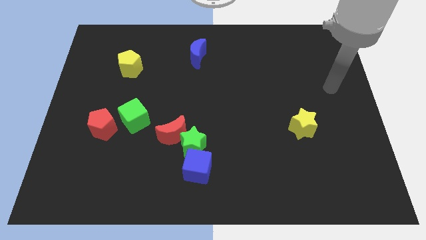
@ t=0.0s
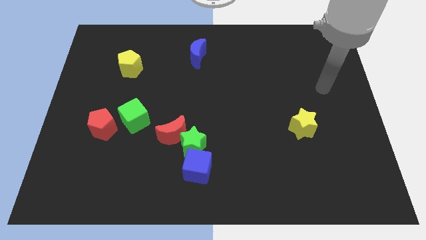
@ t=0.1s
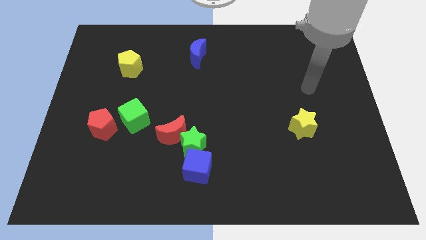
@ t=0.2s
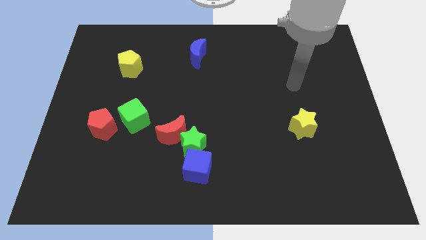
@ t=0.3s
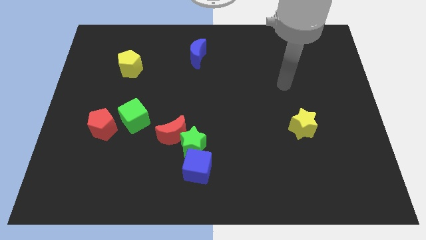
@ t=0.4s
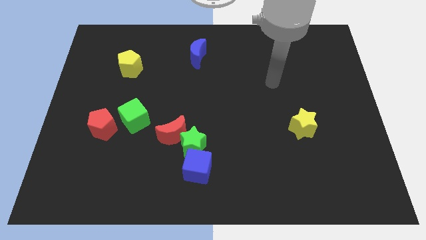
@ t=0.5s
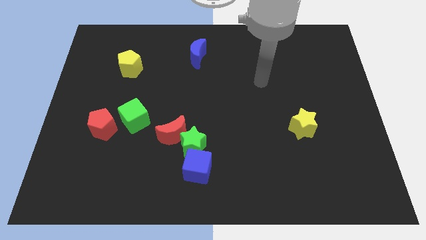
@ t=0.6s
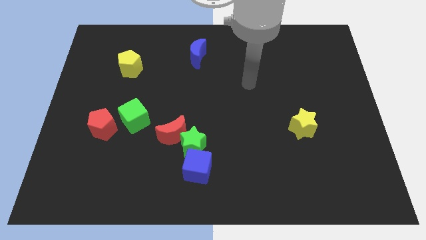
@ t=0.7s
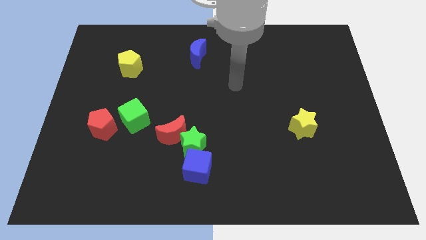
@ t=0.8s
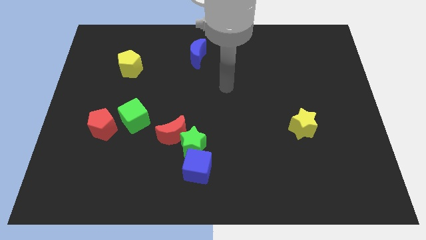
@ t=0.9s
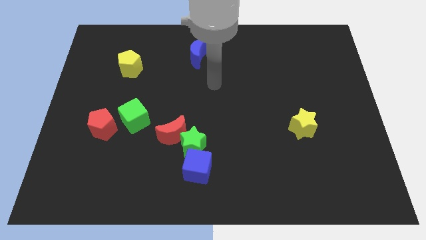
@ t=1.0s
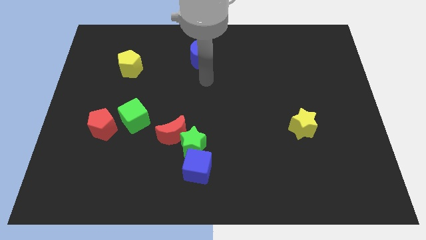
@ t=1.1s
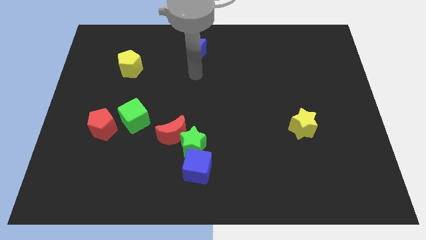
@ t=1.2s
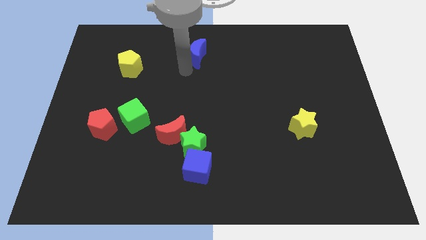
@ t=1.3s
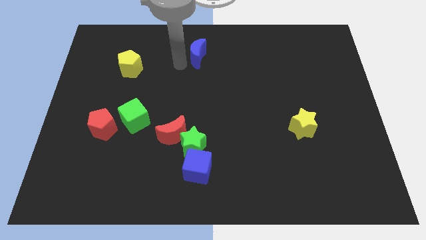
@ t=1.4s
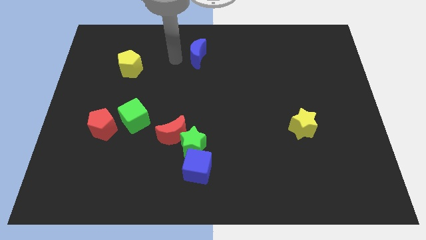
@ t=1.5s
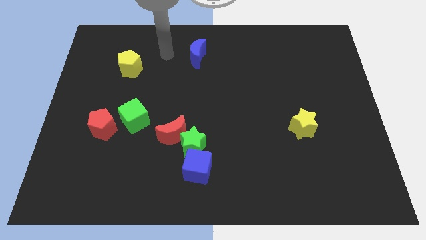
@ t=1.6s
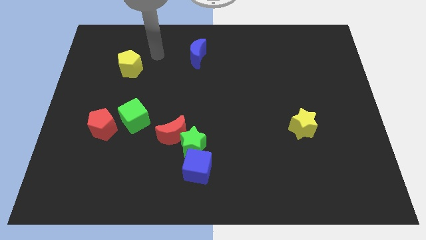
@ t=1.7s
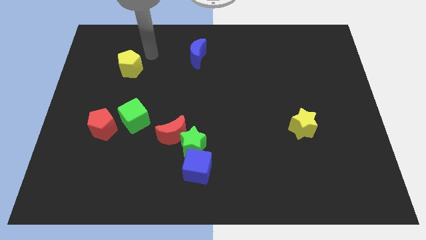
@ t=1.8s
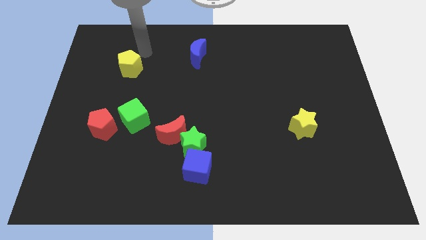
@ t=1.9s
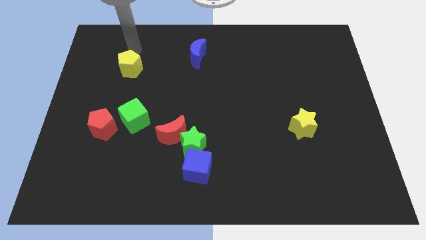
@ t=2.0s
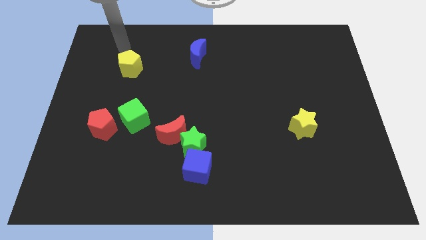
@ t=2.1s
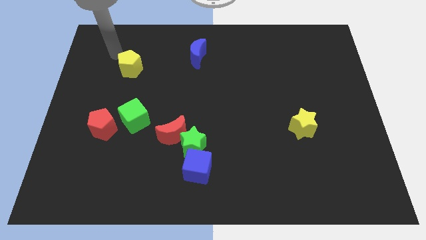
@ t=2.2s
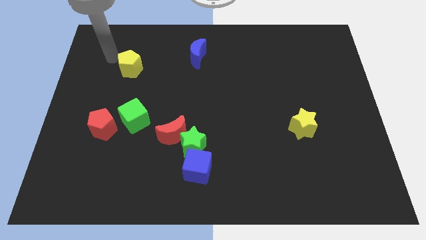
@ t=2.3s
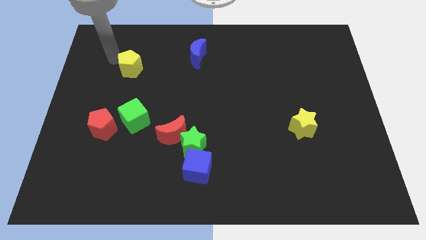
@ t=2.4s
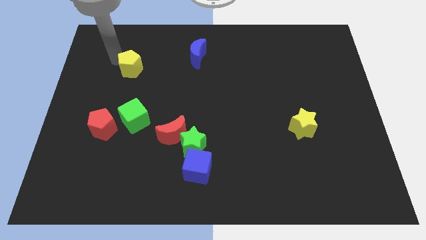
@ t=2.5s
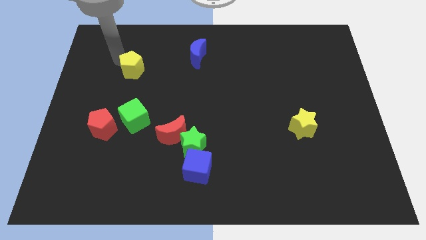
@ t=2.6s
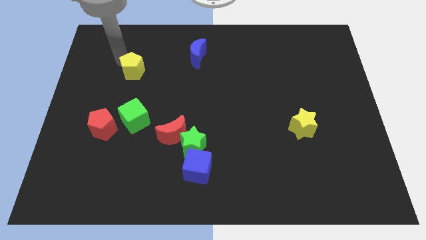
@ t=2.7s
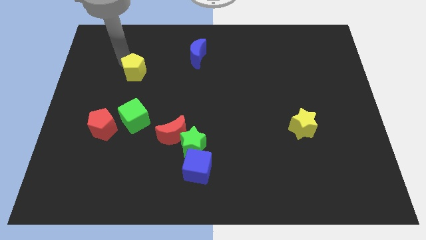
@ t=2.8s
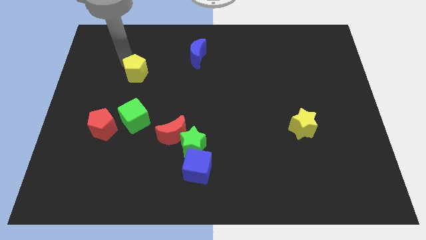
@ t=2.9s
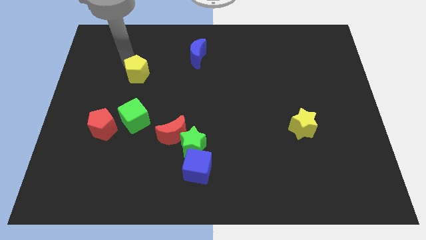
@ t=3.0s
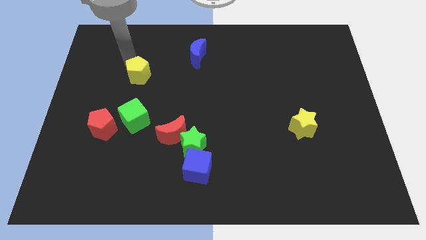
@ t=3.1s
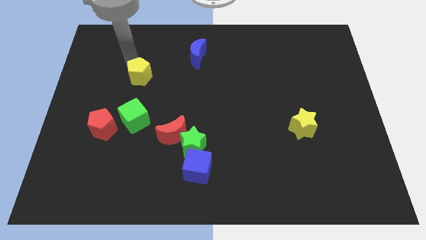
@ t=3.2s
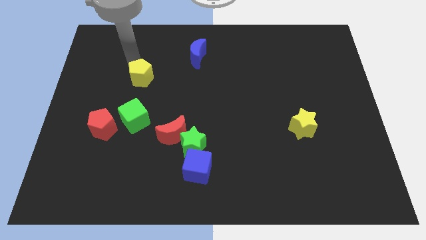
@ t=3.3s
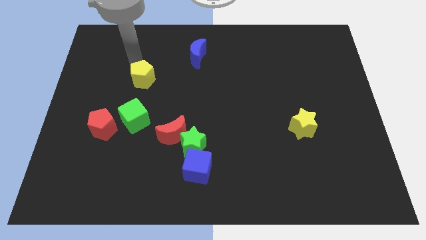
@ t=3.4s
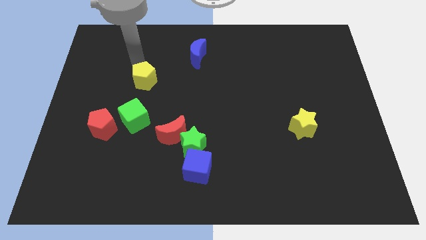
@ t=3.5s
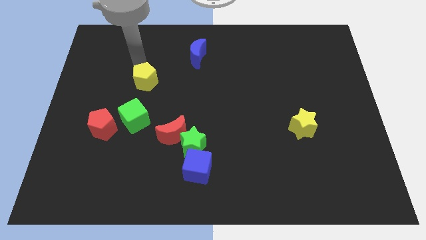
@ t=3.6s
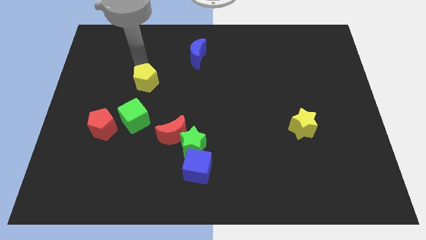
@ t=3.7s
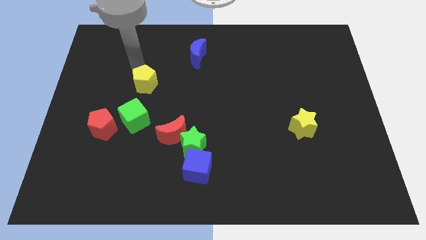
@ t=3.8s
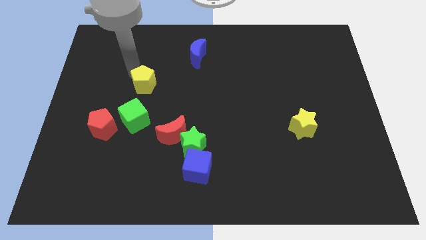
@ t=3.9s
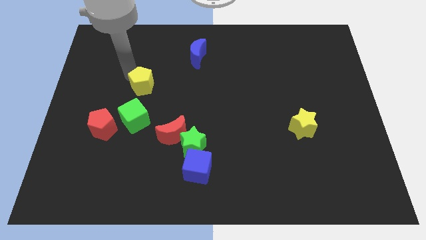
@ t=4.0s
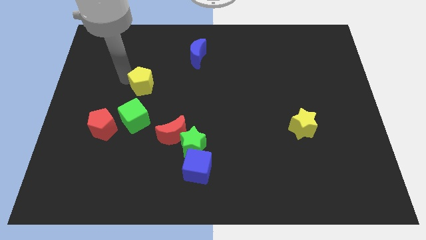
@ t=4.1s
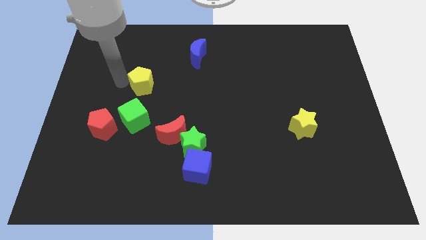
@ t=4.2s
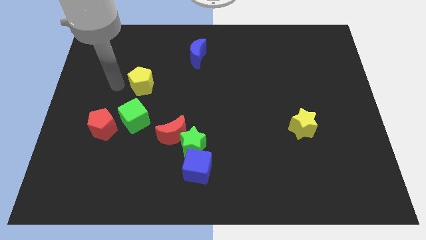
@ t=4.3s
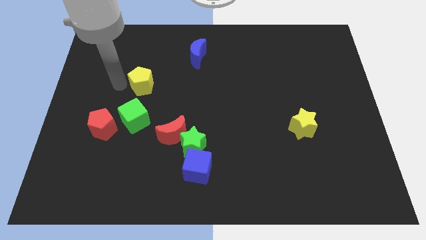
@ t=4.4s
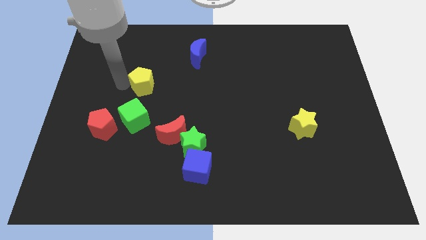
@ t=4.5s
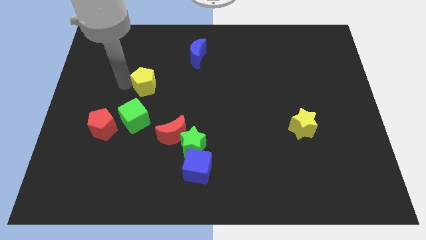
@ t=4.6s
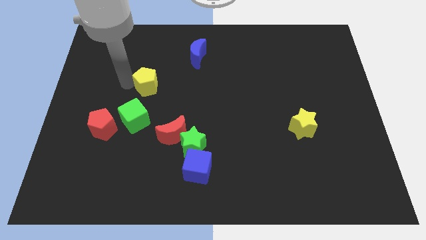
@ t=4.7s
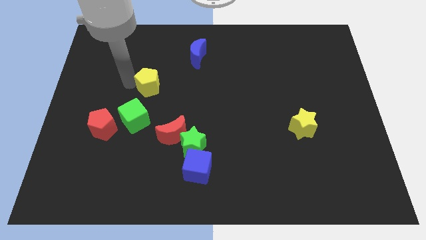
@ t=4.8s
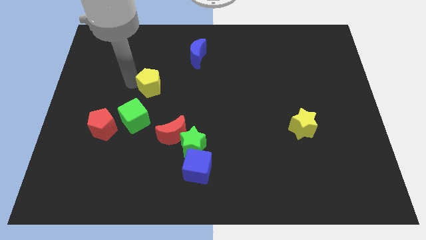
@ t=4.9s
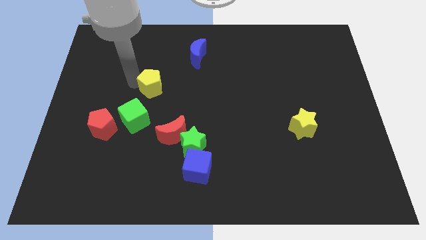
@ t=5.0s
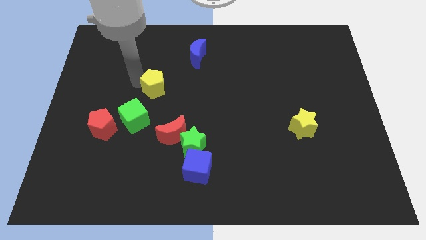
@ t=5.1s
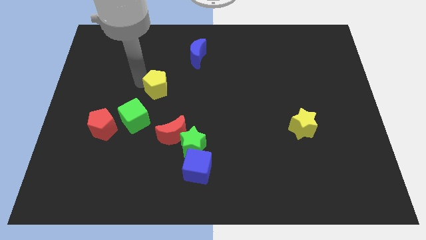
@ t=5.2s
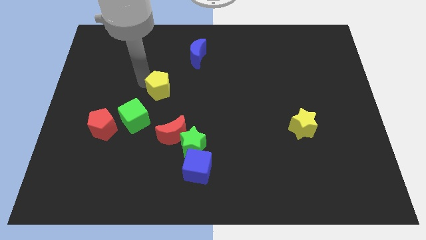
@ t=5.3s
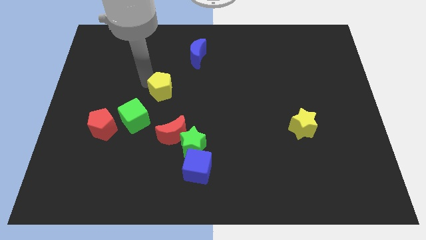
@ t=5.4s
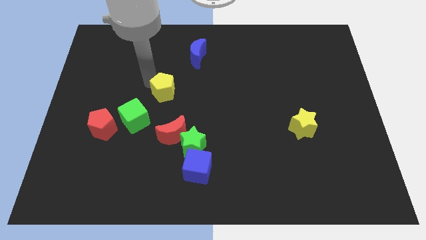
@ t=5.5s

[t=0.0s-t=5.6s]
move the yellow pentagon to the center of the board

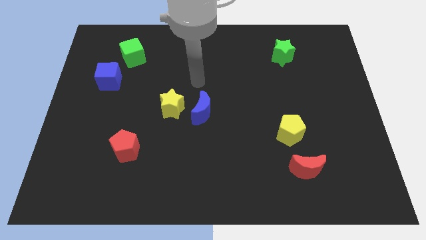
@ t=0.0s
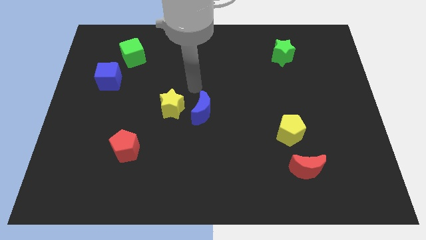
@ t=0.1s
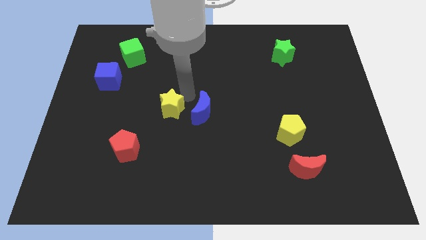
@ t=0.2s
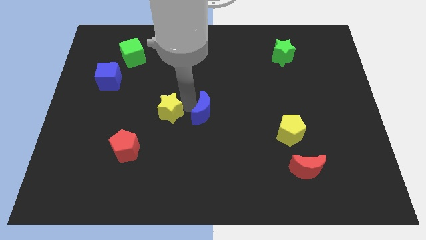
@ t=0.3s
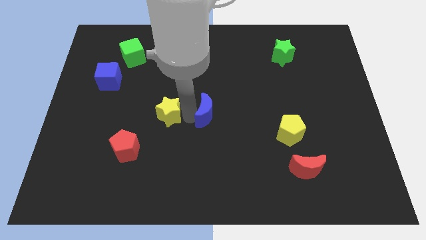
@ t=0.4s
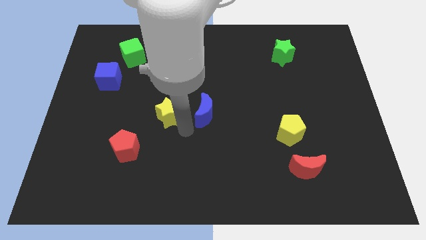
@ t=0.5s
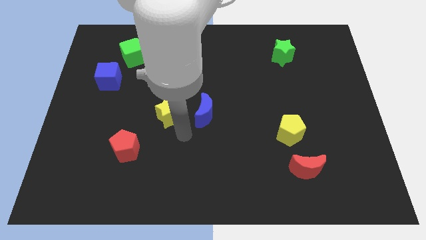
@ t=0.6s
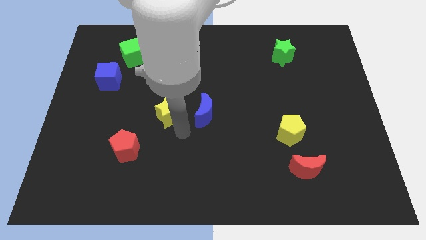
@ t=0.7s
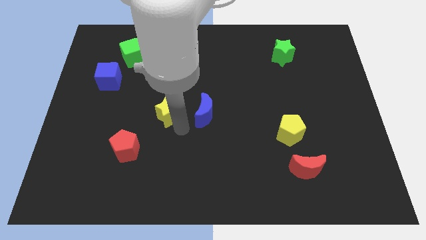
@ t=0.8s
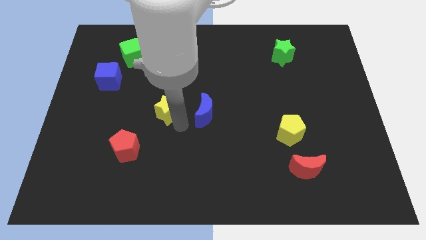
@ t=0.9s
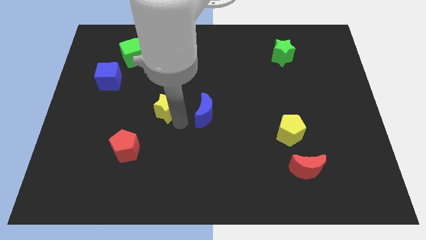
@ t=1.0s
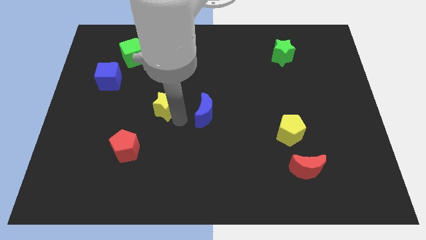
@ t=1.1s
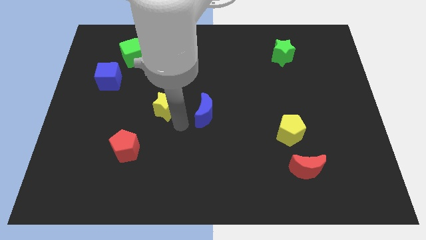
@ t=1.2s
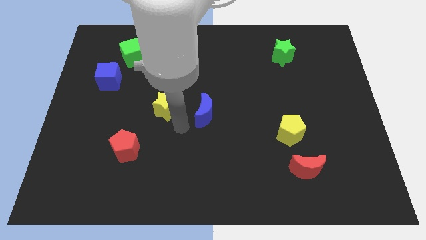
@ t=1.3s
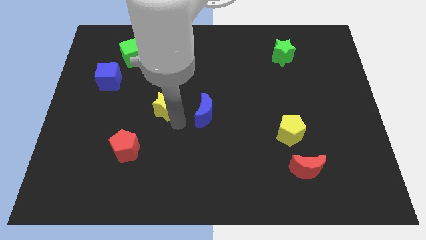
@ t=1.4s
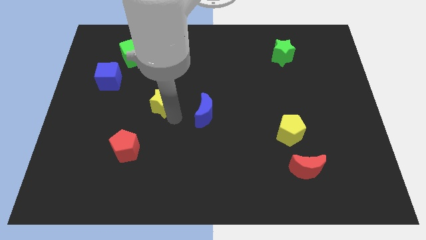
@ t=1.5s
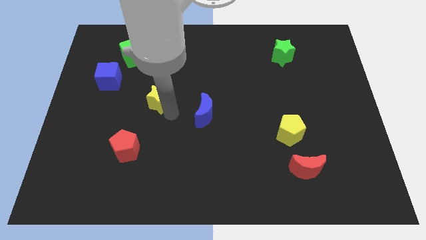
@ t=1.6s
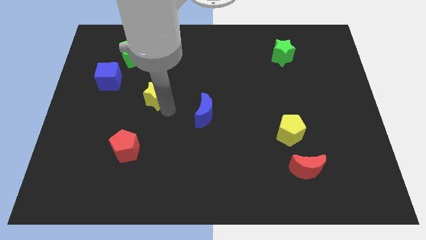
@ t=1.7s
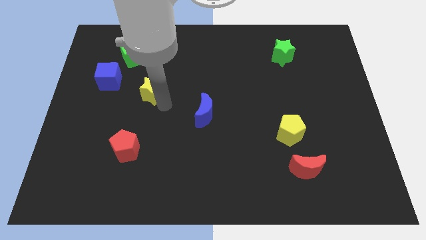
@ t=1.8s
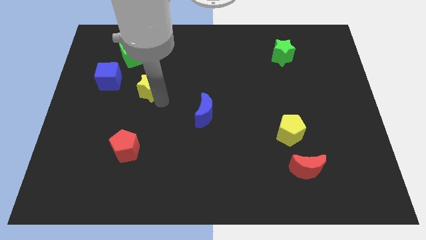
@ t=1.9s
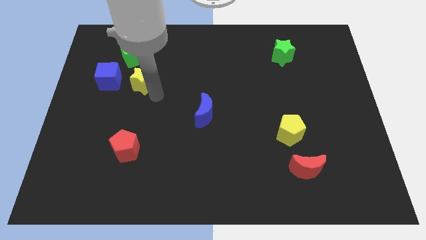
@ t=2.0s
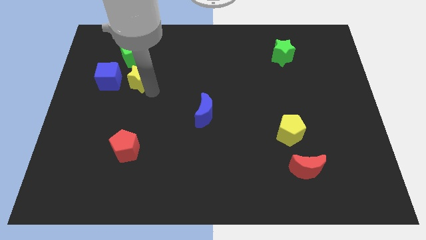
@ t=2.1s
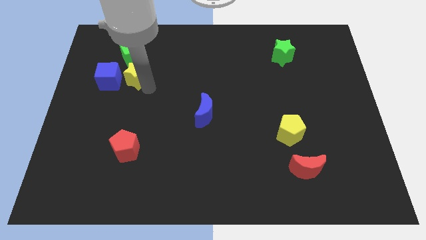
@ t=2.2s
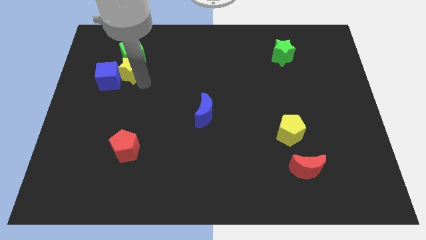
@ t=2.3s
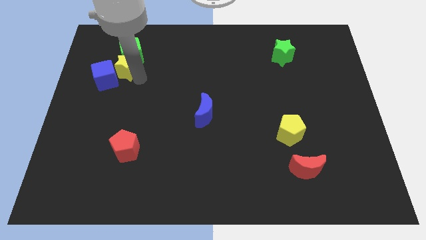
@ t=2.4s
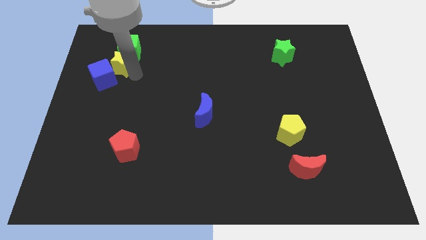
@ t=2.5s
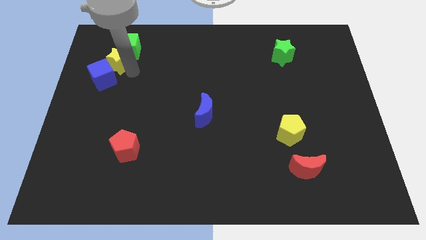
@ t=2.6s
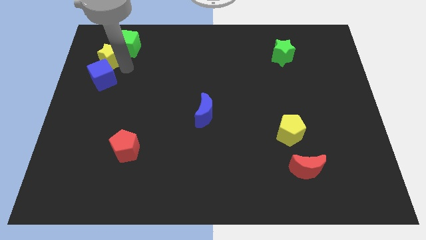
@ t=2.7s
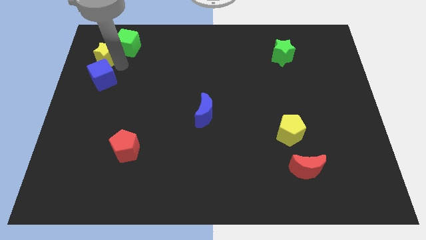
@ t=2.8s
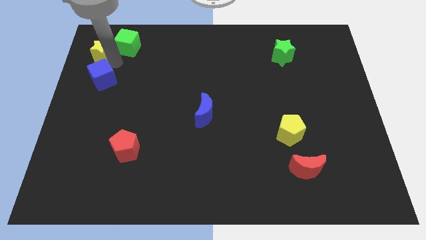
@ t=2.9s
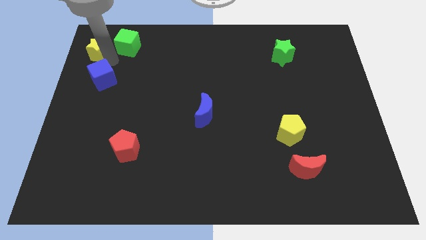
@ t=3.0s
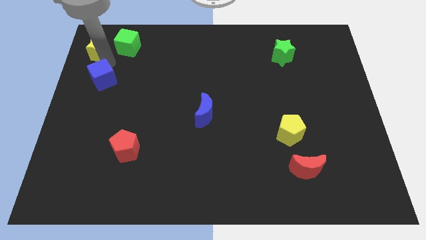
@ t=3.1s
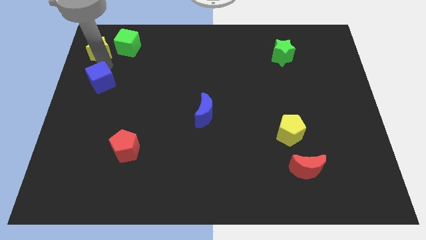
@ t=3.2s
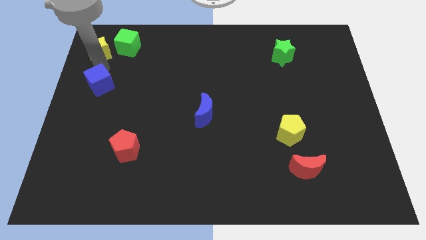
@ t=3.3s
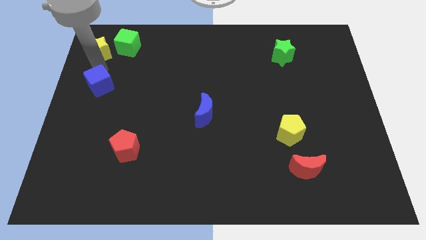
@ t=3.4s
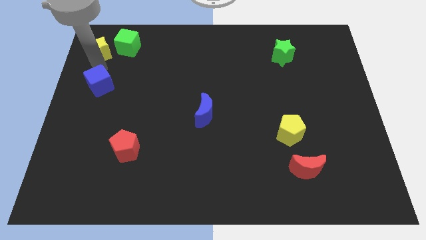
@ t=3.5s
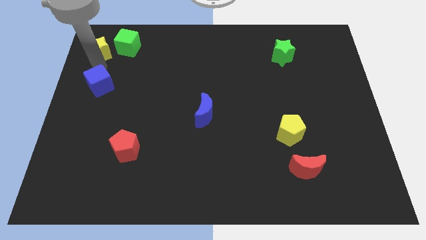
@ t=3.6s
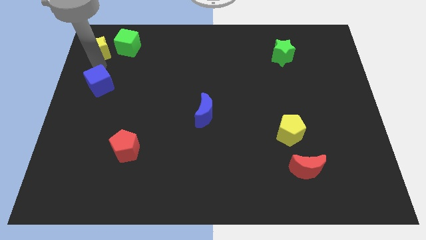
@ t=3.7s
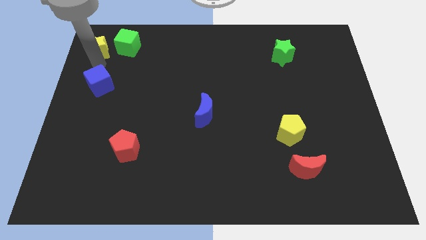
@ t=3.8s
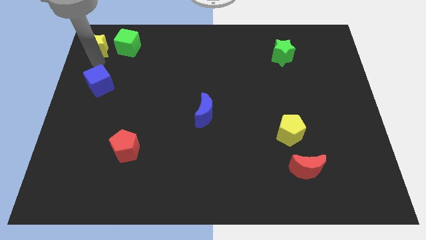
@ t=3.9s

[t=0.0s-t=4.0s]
slide the yellow star to the top left
